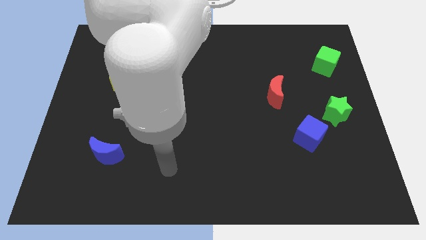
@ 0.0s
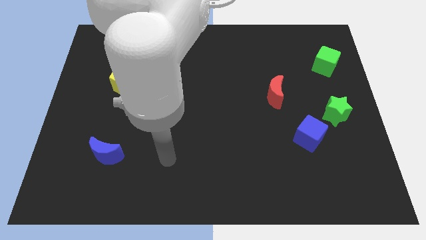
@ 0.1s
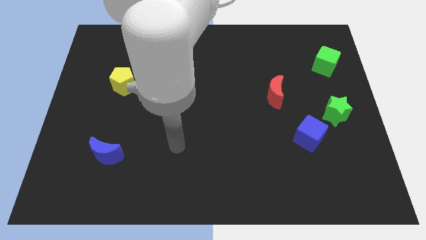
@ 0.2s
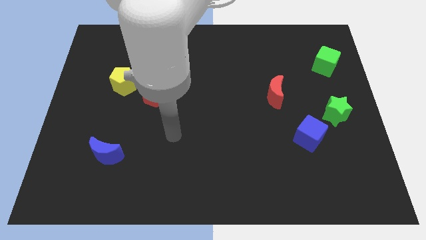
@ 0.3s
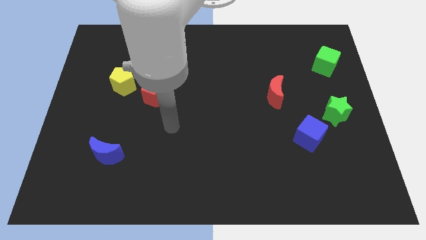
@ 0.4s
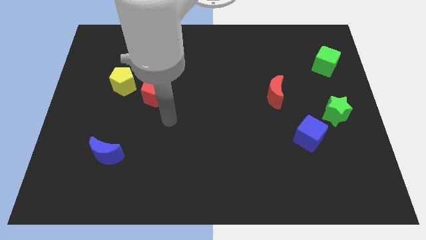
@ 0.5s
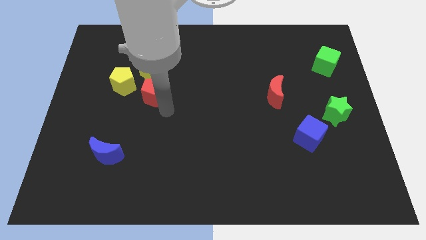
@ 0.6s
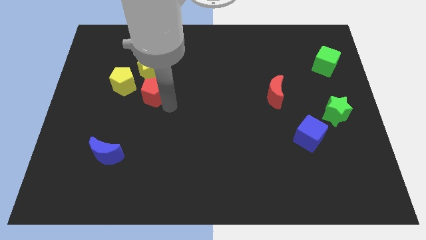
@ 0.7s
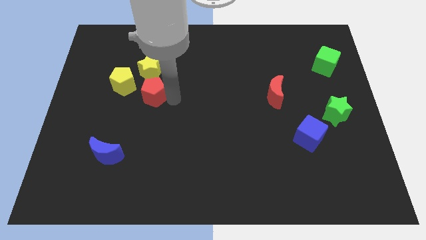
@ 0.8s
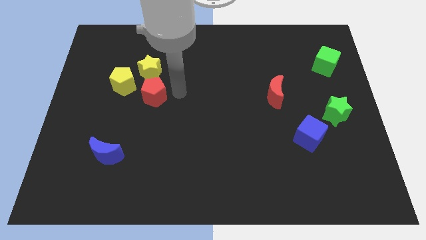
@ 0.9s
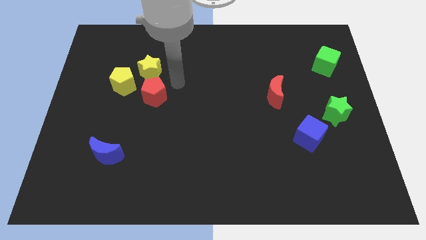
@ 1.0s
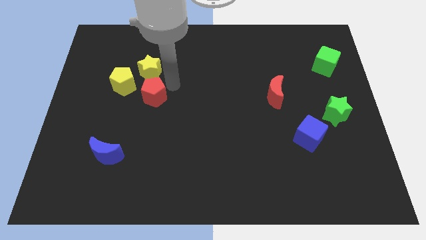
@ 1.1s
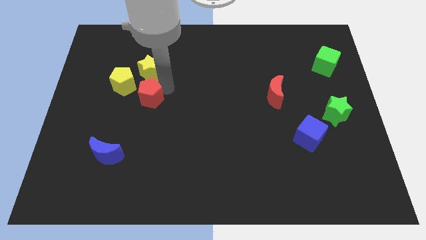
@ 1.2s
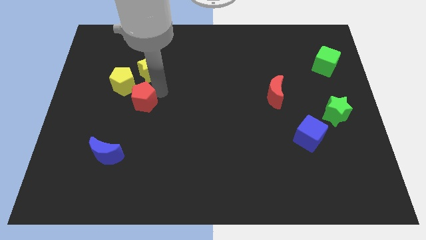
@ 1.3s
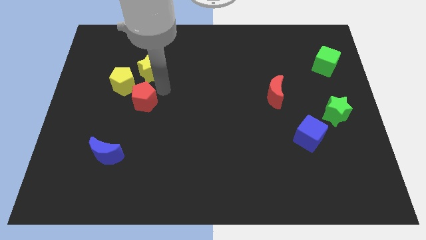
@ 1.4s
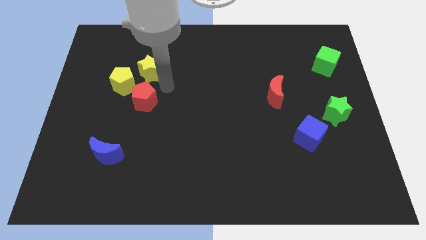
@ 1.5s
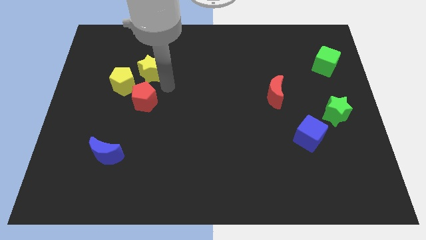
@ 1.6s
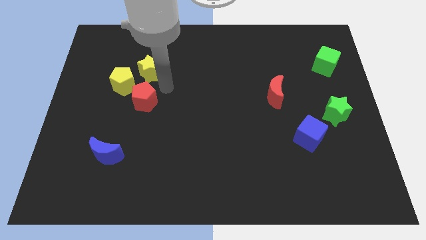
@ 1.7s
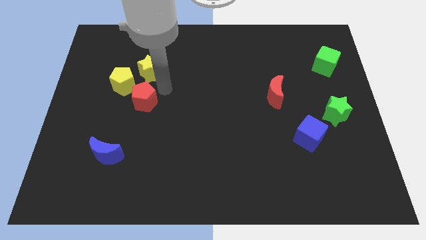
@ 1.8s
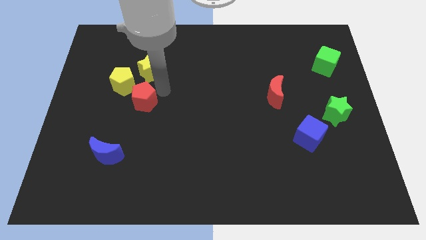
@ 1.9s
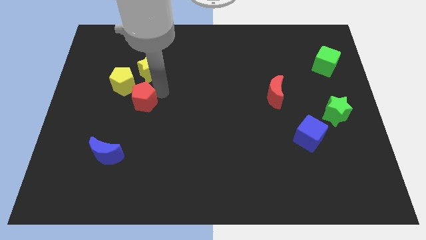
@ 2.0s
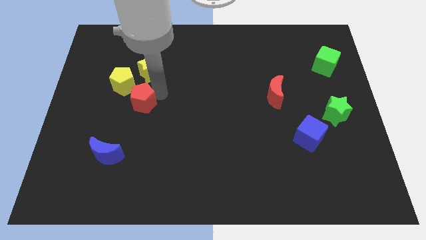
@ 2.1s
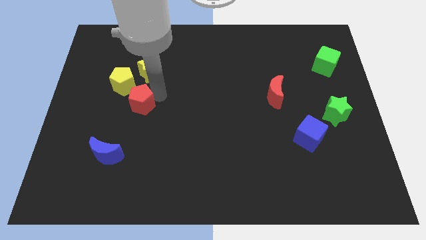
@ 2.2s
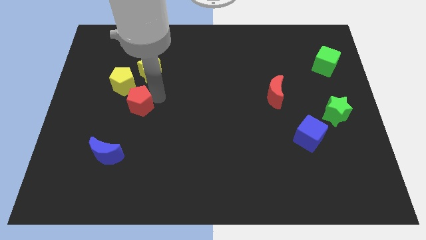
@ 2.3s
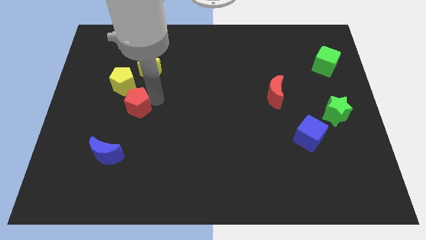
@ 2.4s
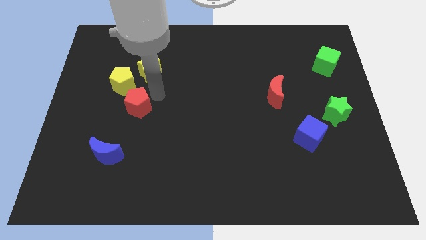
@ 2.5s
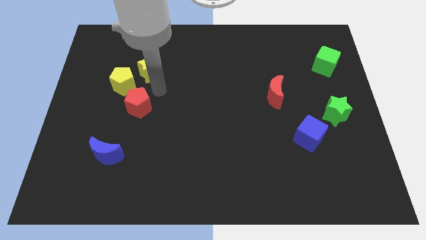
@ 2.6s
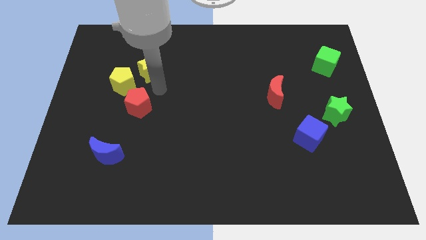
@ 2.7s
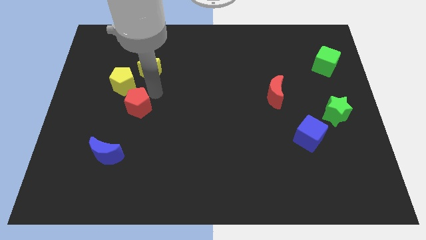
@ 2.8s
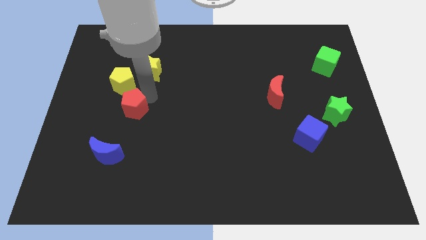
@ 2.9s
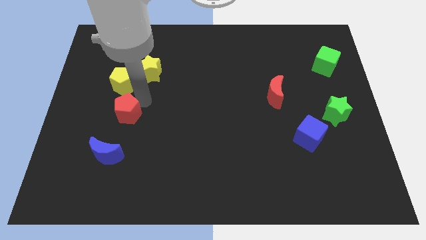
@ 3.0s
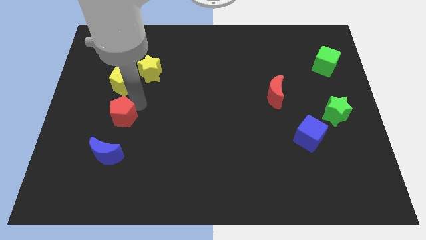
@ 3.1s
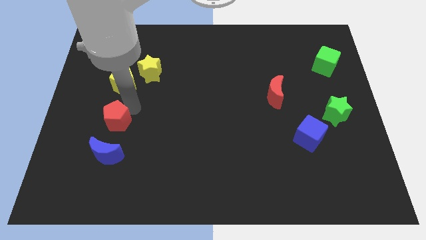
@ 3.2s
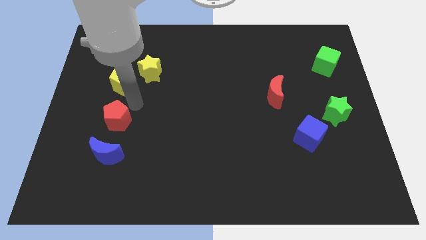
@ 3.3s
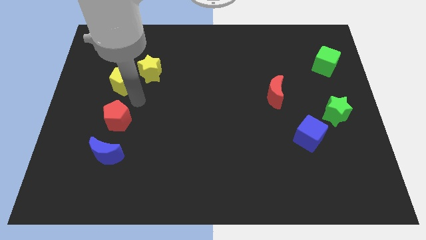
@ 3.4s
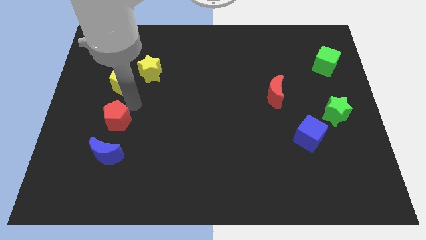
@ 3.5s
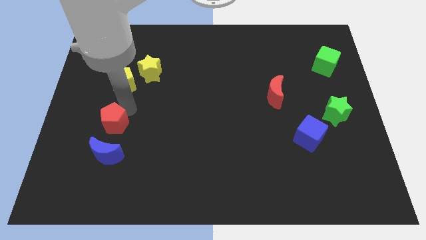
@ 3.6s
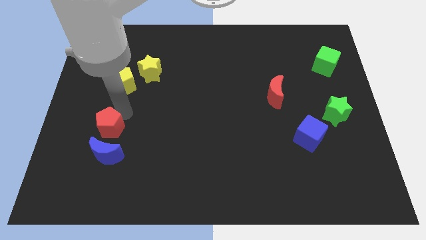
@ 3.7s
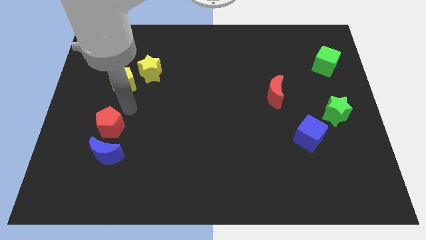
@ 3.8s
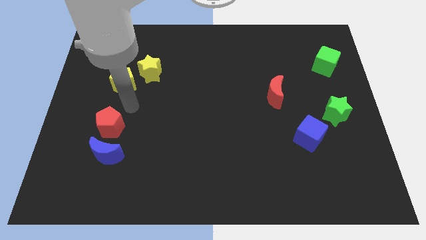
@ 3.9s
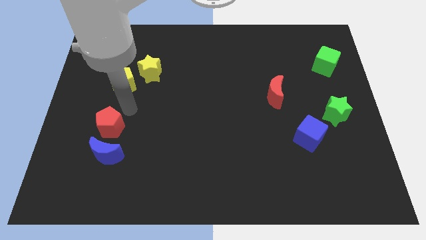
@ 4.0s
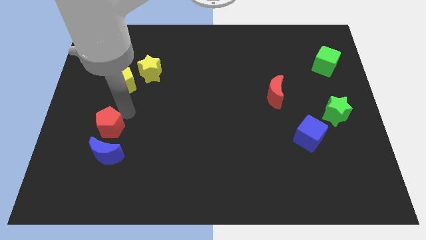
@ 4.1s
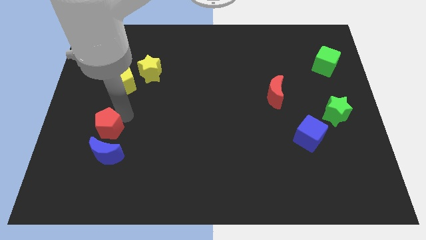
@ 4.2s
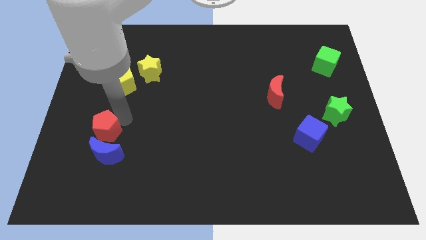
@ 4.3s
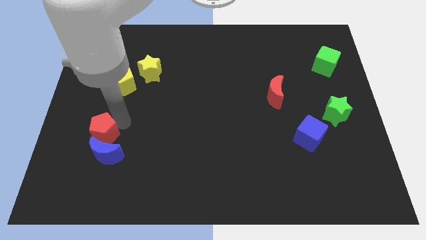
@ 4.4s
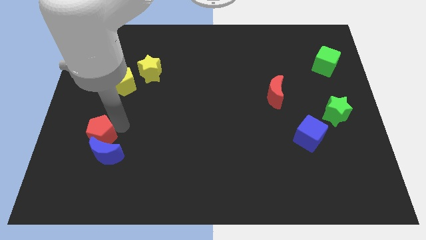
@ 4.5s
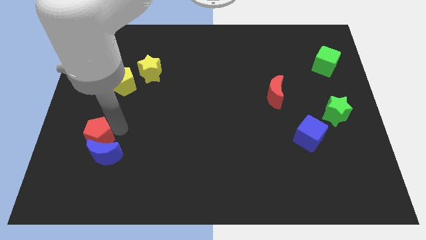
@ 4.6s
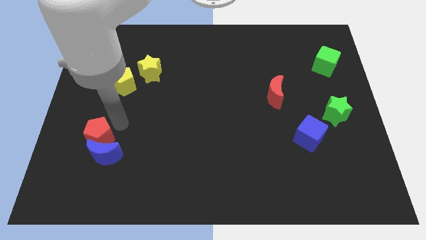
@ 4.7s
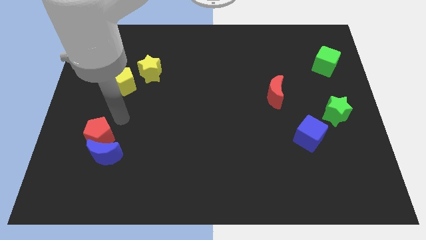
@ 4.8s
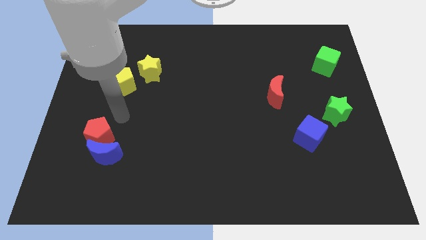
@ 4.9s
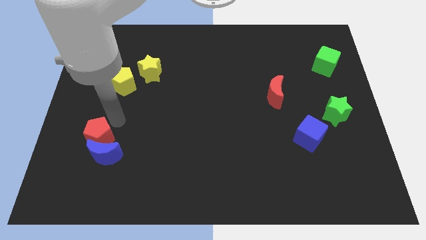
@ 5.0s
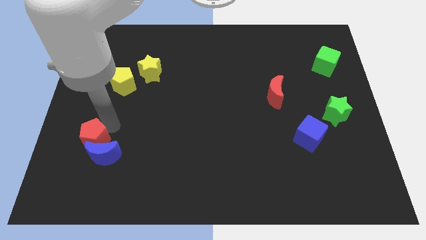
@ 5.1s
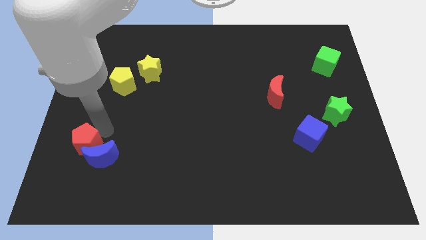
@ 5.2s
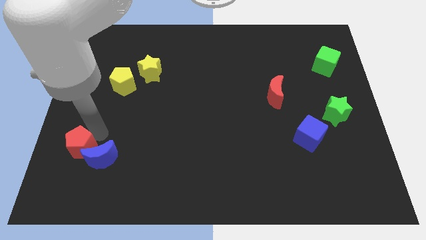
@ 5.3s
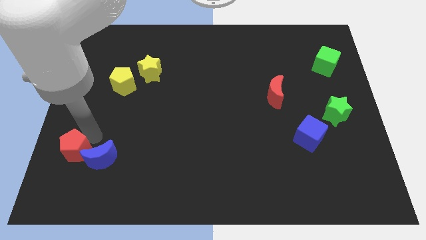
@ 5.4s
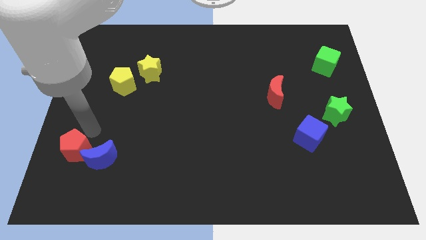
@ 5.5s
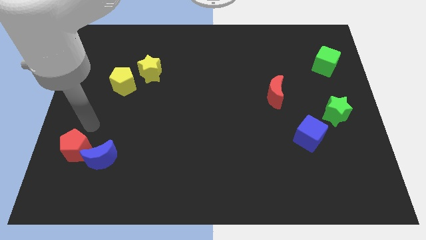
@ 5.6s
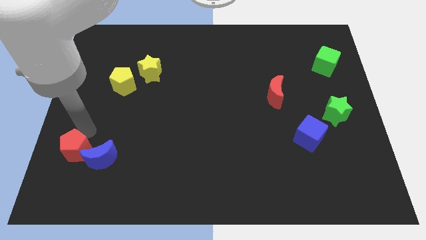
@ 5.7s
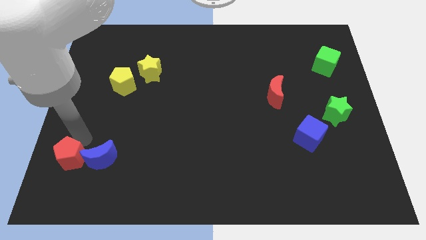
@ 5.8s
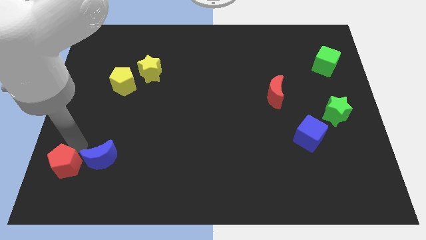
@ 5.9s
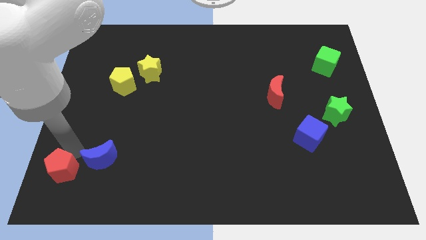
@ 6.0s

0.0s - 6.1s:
put the red pentagon to the bottom left

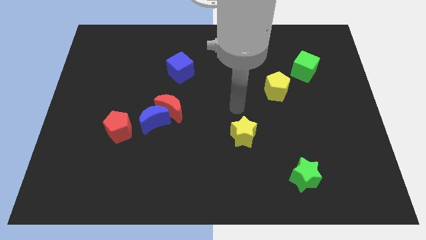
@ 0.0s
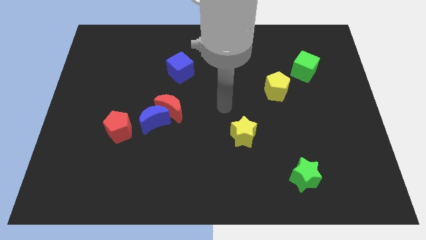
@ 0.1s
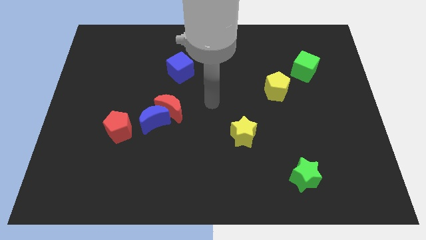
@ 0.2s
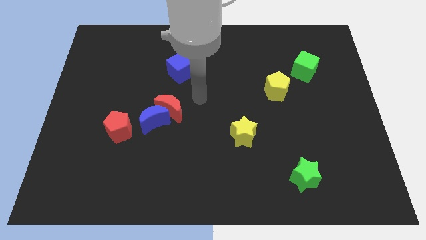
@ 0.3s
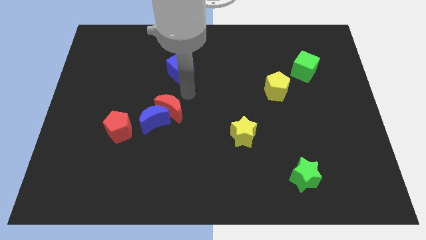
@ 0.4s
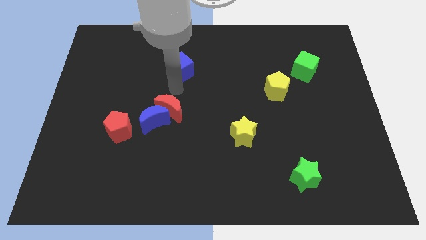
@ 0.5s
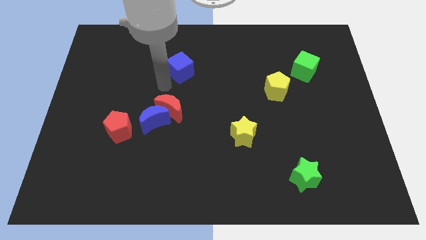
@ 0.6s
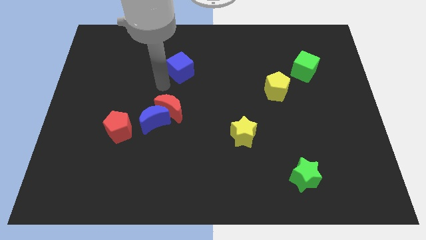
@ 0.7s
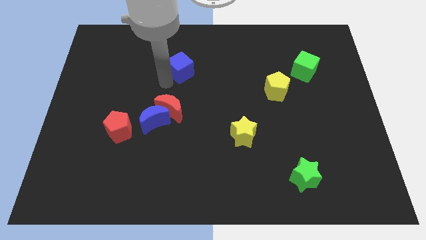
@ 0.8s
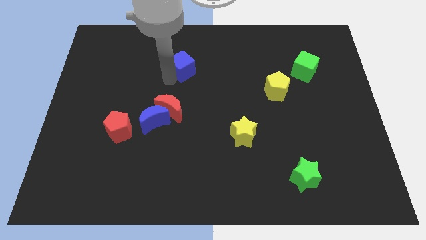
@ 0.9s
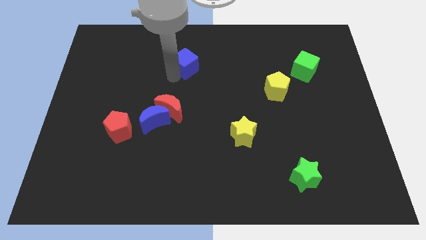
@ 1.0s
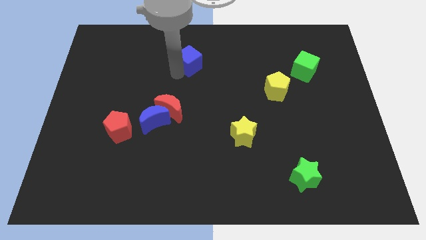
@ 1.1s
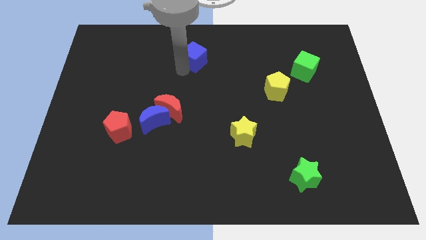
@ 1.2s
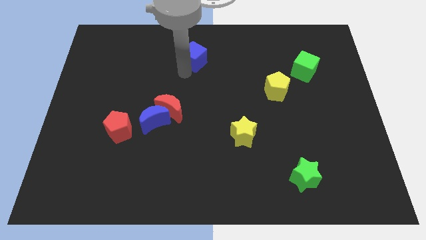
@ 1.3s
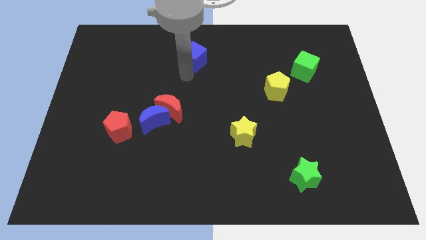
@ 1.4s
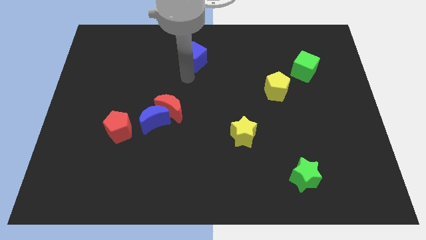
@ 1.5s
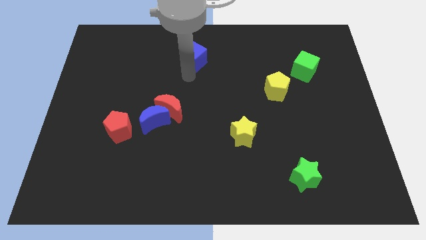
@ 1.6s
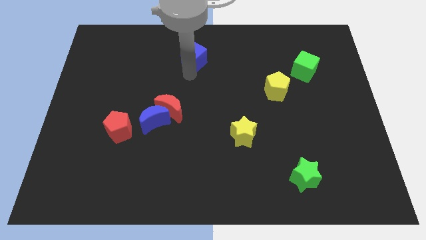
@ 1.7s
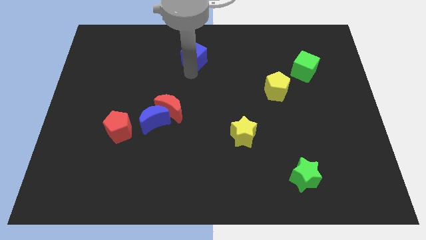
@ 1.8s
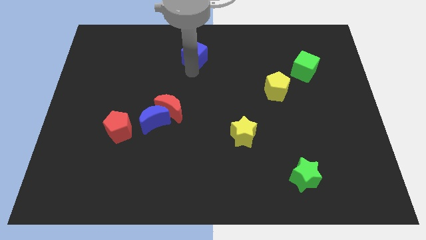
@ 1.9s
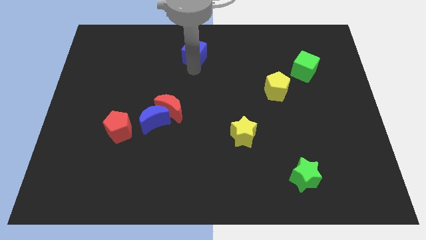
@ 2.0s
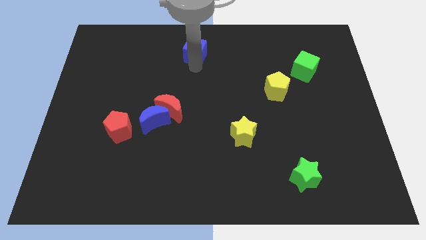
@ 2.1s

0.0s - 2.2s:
move the blue cube to the towards your base
